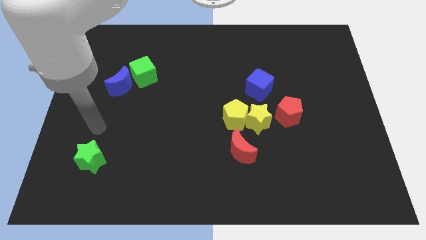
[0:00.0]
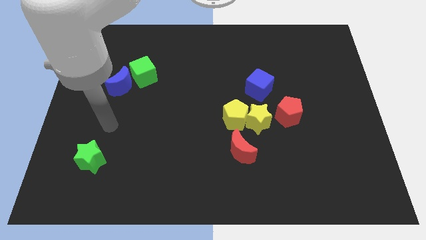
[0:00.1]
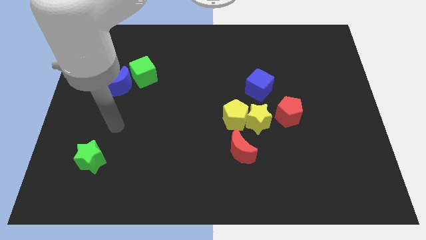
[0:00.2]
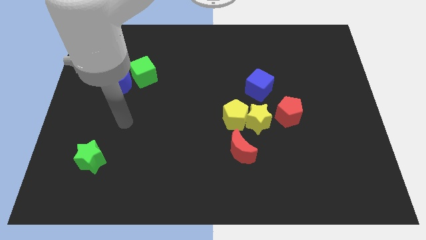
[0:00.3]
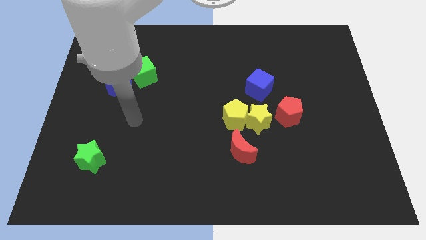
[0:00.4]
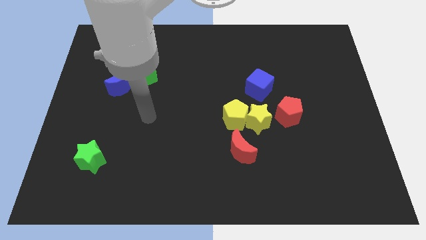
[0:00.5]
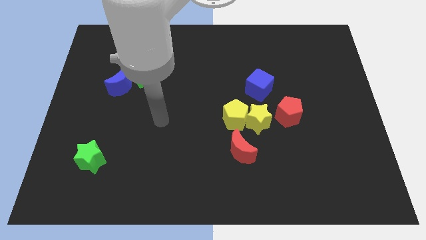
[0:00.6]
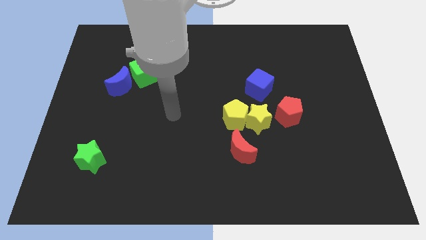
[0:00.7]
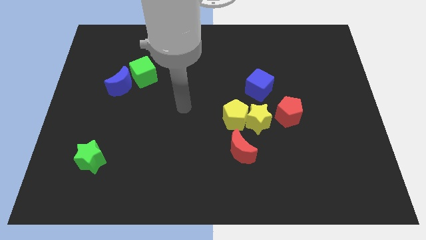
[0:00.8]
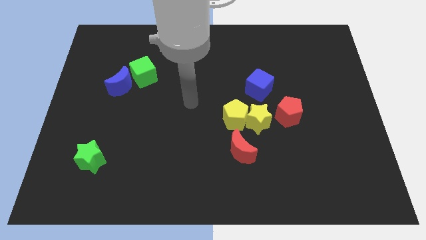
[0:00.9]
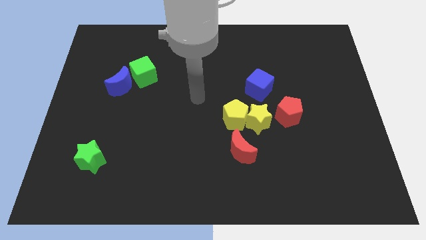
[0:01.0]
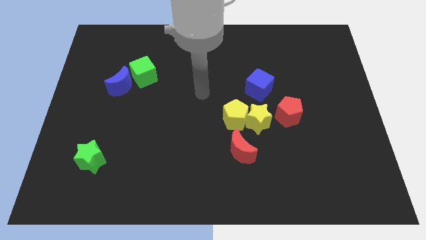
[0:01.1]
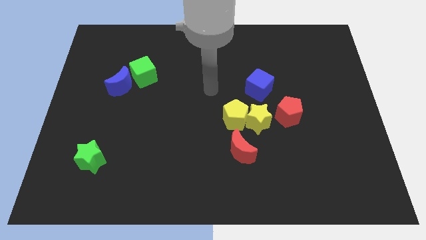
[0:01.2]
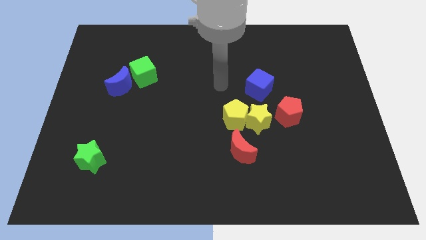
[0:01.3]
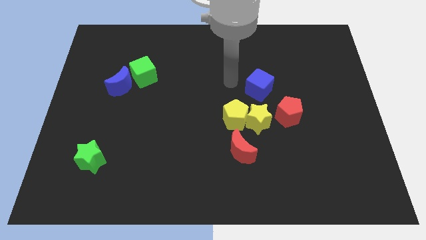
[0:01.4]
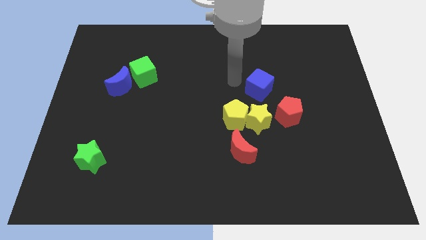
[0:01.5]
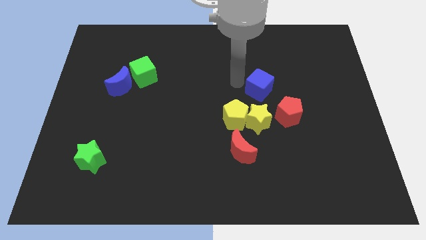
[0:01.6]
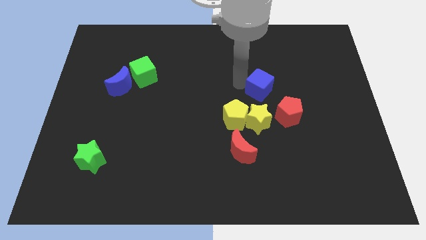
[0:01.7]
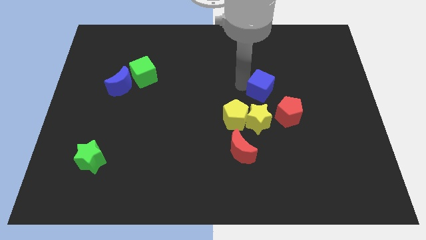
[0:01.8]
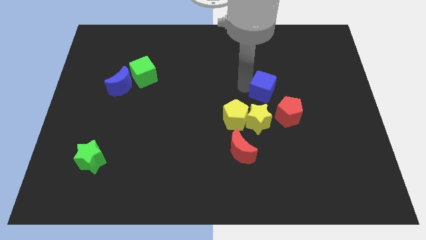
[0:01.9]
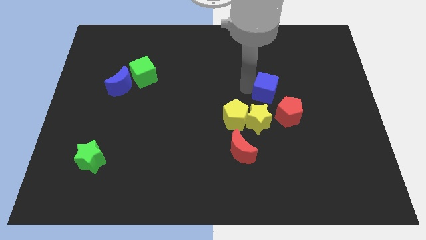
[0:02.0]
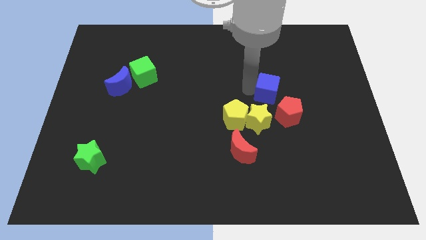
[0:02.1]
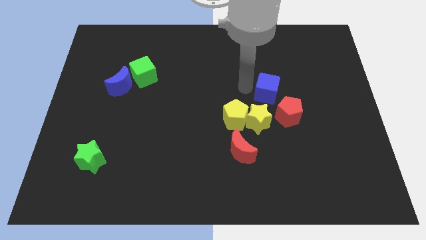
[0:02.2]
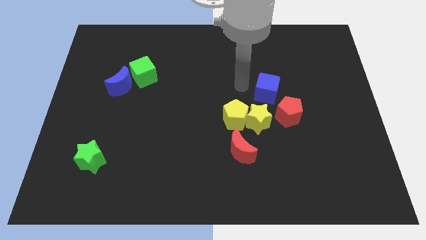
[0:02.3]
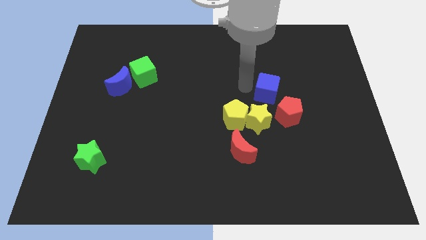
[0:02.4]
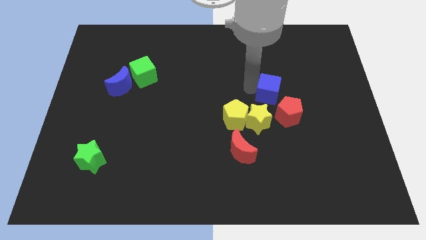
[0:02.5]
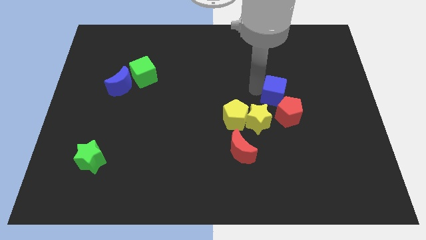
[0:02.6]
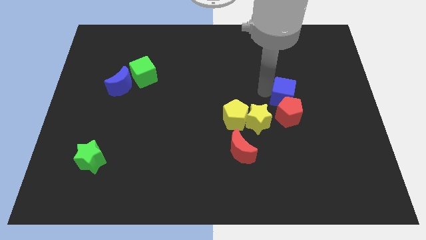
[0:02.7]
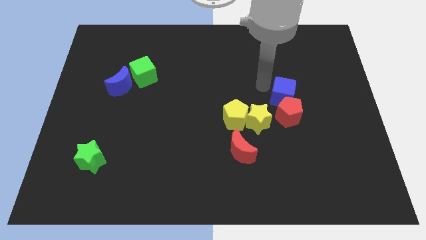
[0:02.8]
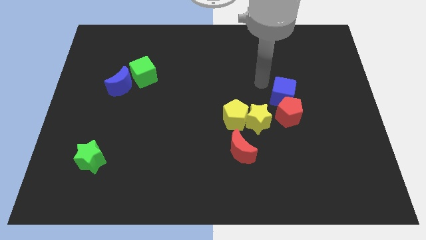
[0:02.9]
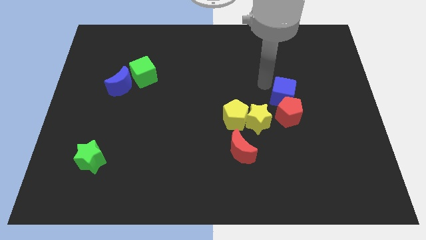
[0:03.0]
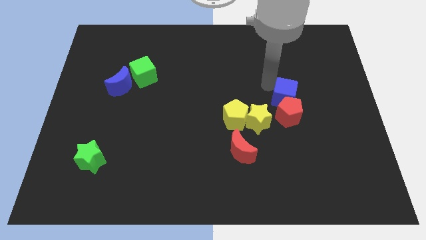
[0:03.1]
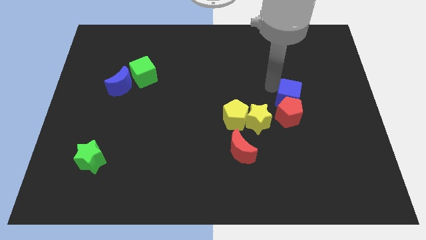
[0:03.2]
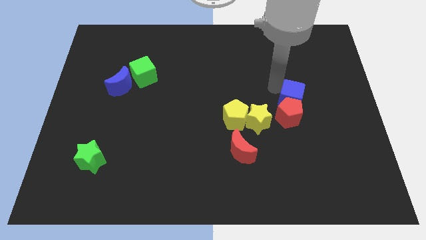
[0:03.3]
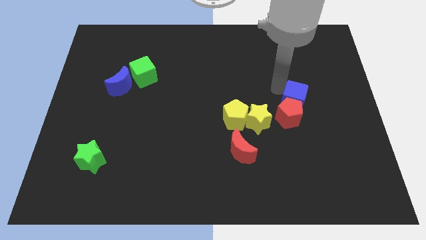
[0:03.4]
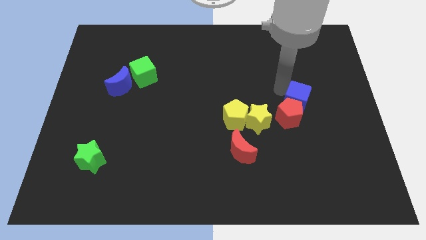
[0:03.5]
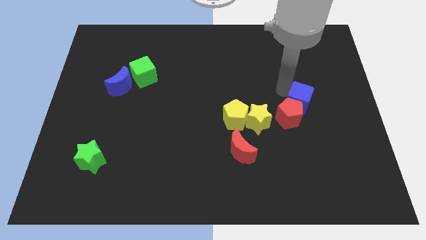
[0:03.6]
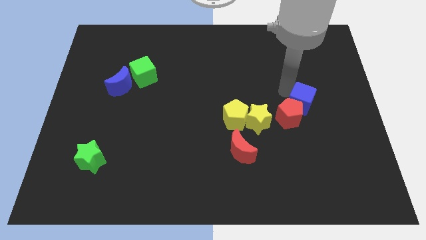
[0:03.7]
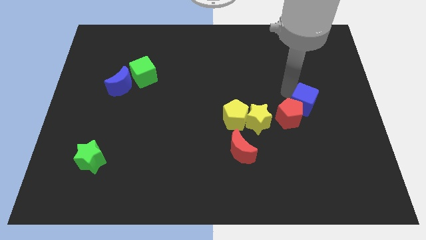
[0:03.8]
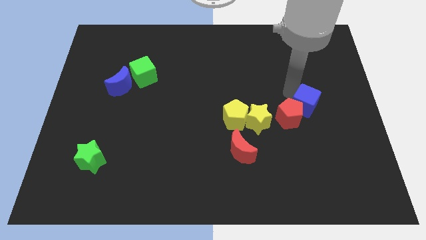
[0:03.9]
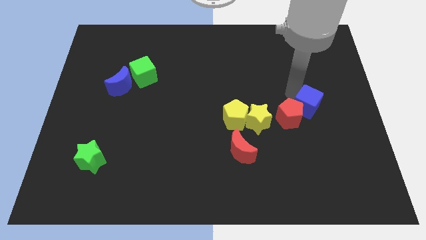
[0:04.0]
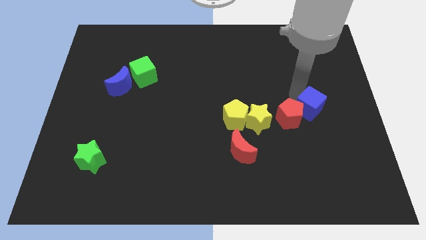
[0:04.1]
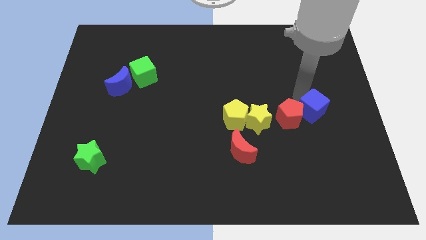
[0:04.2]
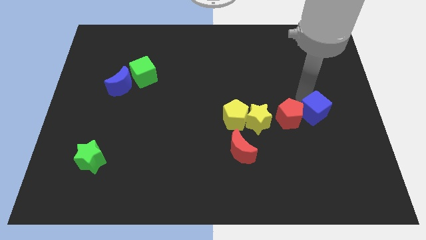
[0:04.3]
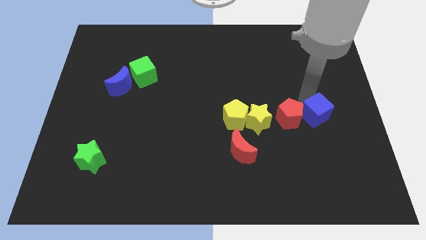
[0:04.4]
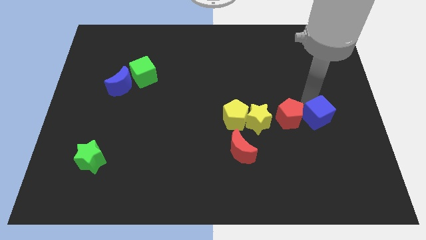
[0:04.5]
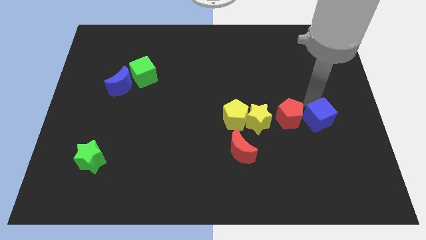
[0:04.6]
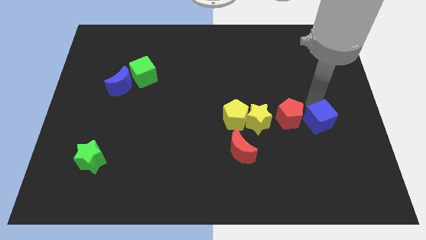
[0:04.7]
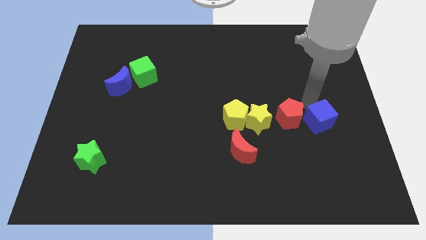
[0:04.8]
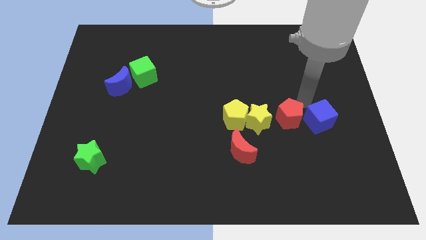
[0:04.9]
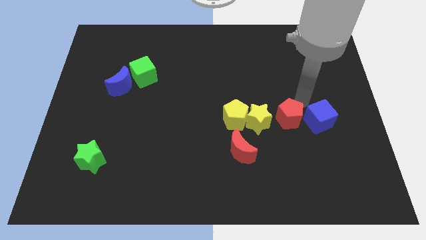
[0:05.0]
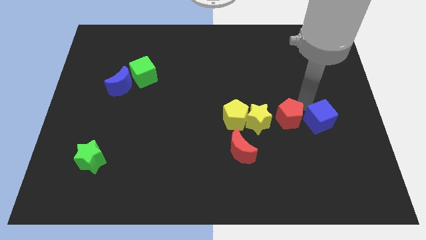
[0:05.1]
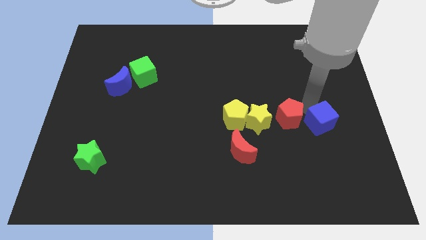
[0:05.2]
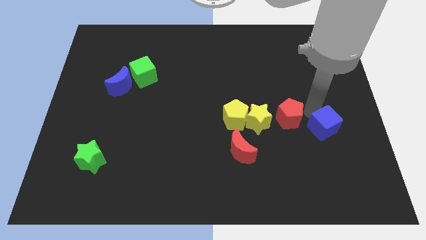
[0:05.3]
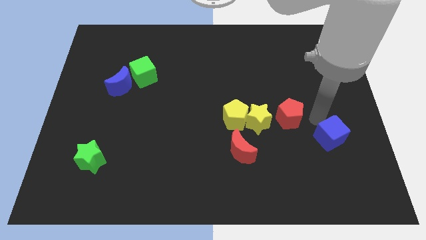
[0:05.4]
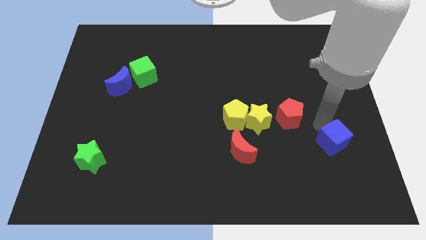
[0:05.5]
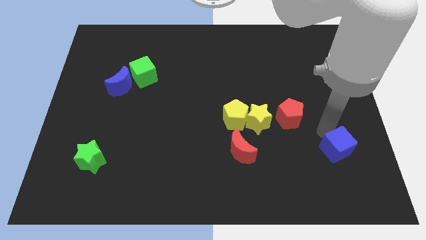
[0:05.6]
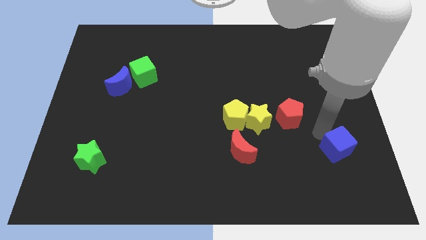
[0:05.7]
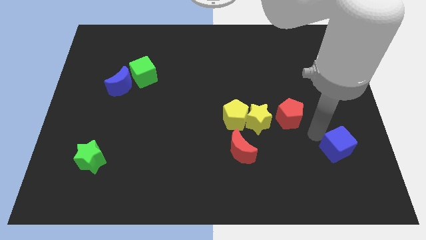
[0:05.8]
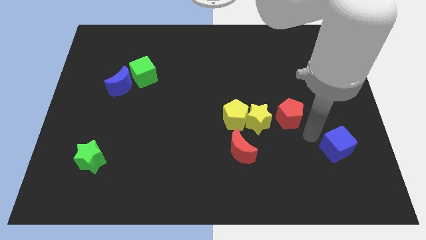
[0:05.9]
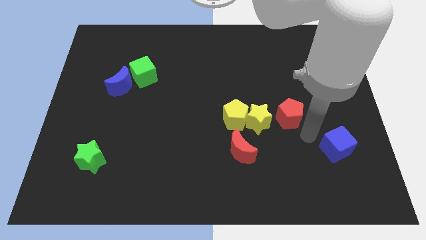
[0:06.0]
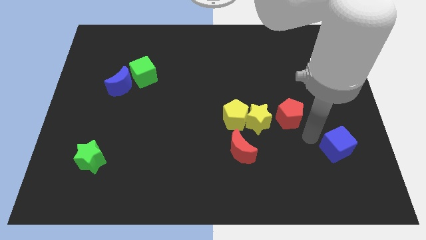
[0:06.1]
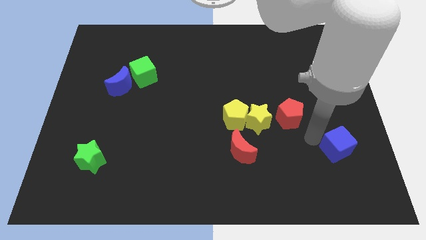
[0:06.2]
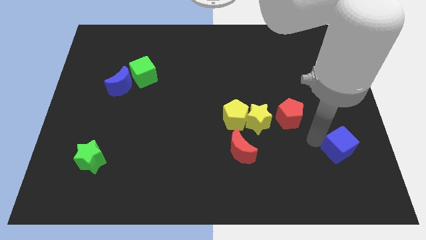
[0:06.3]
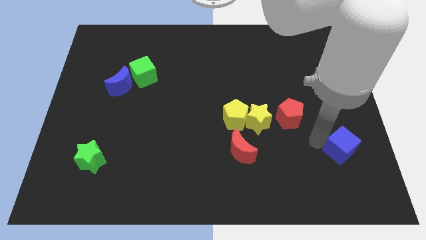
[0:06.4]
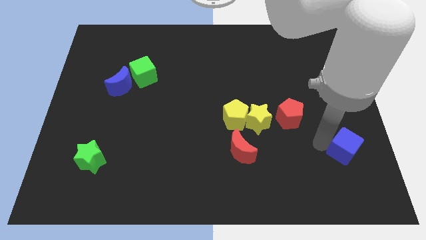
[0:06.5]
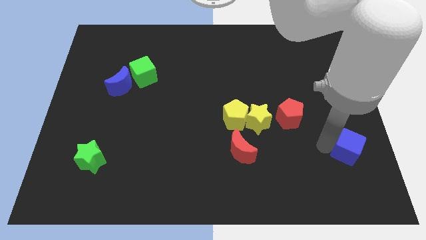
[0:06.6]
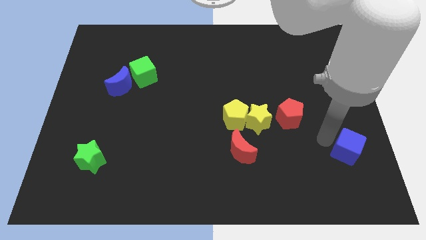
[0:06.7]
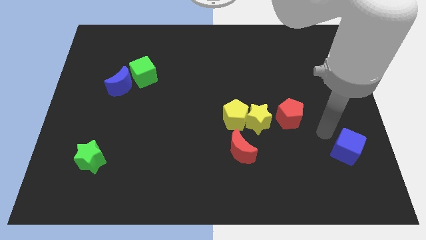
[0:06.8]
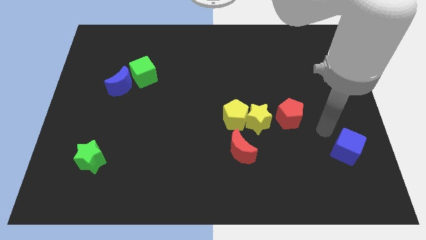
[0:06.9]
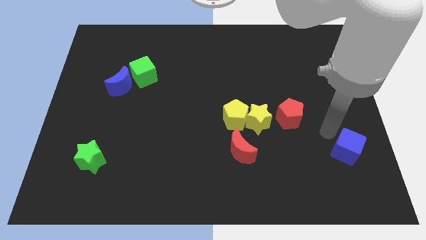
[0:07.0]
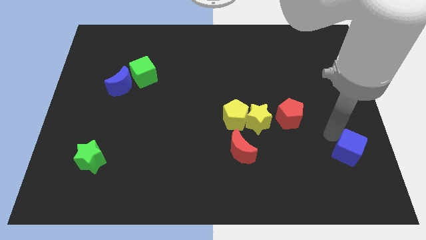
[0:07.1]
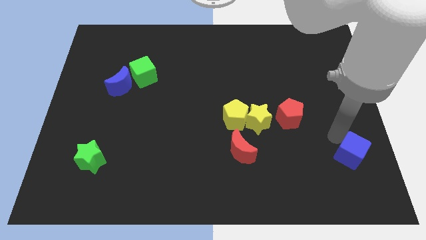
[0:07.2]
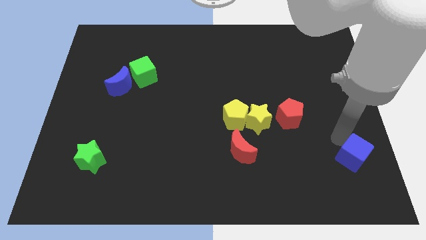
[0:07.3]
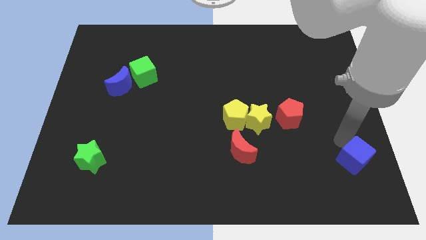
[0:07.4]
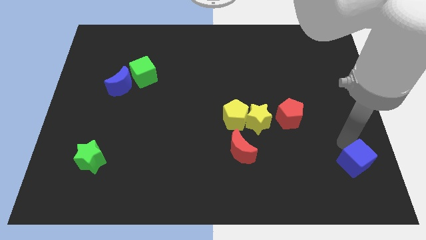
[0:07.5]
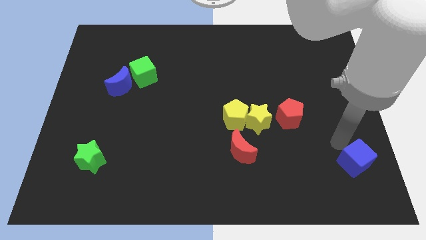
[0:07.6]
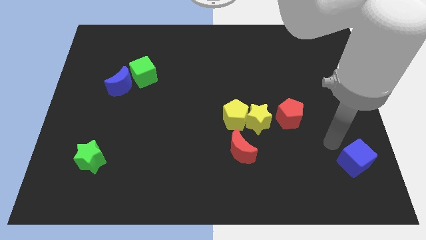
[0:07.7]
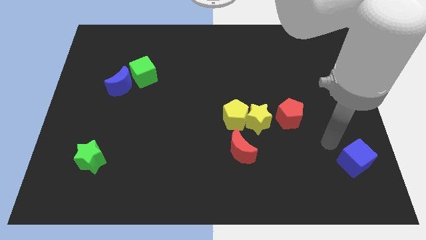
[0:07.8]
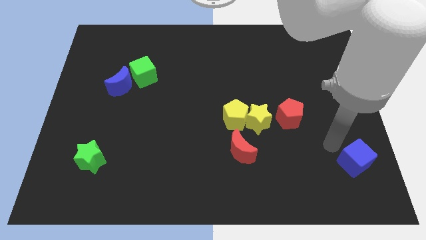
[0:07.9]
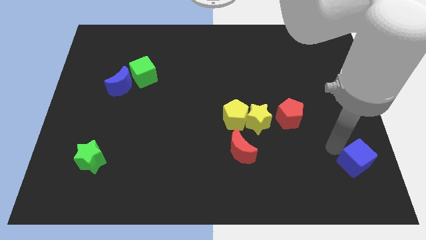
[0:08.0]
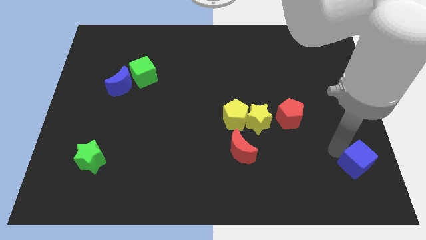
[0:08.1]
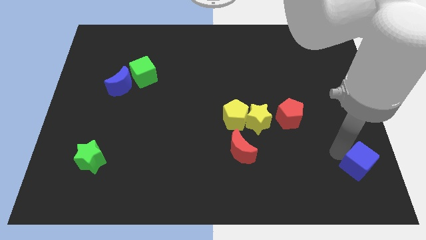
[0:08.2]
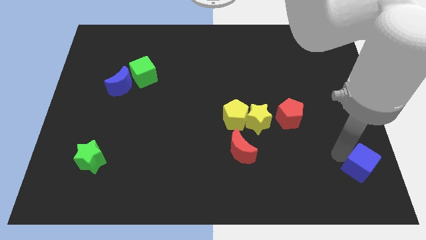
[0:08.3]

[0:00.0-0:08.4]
move the blue cube to the lower right corner
